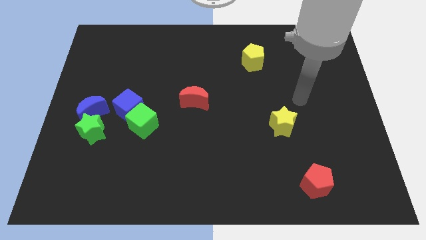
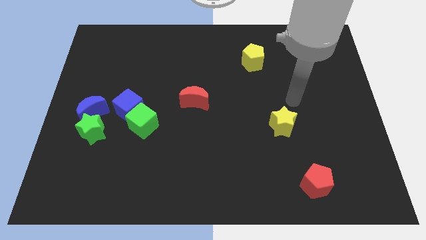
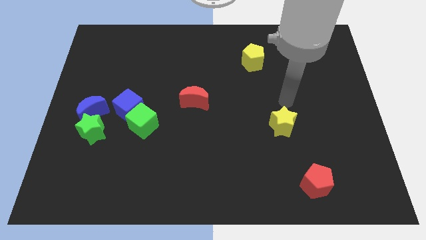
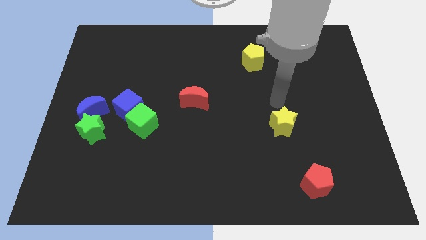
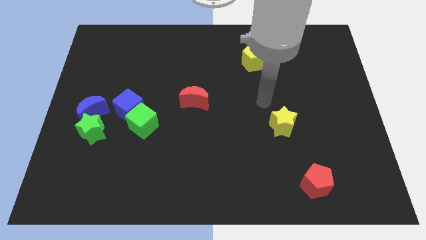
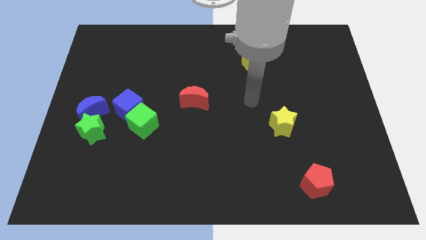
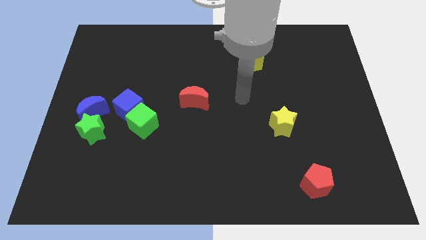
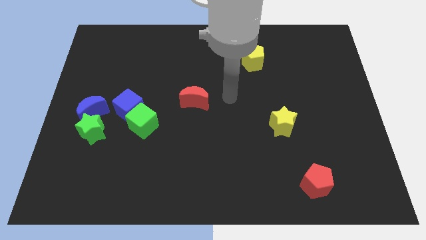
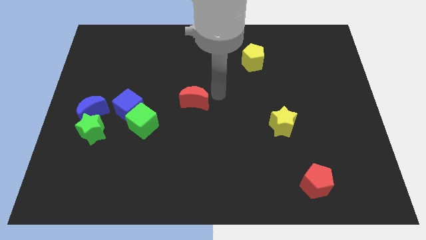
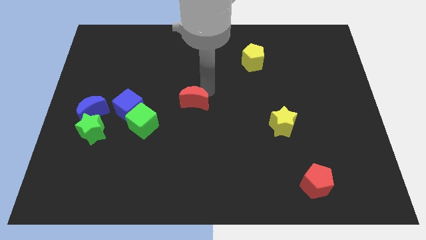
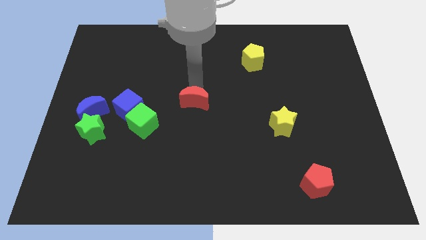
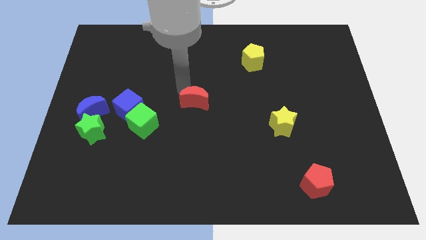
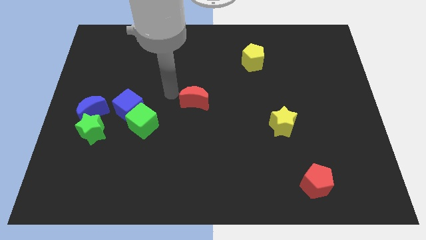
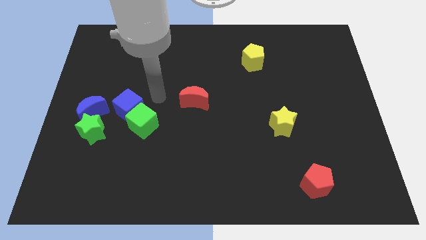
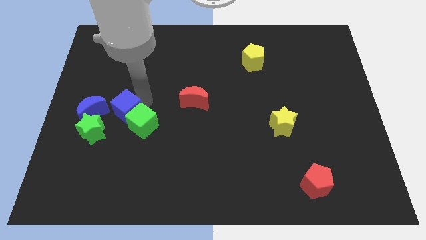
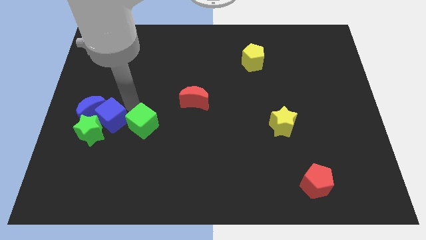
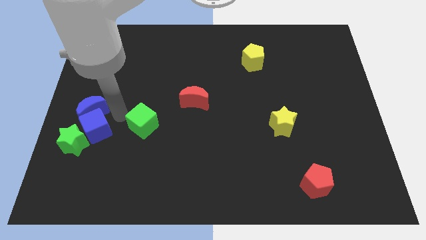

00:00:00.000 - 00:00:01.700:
pull the green cube apart from the blue cube

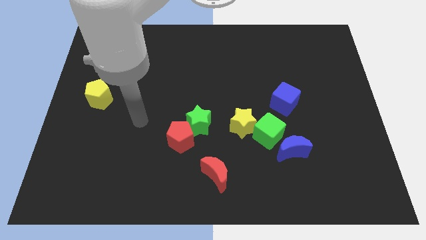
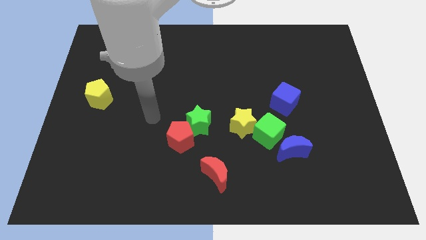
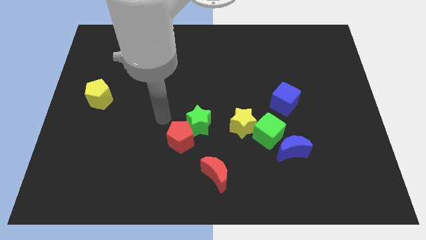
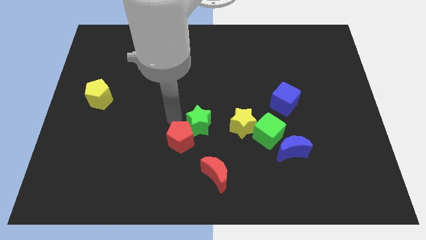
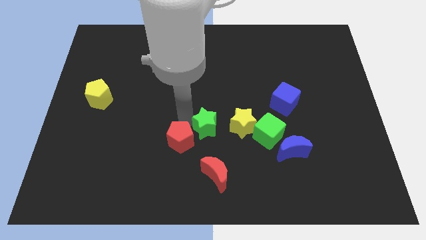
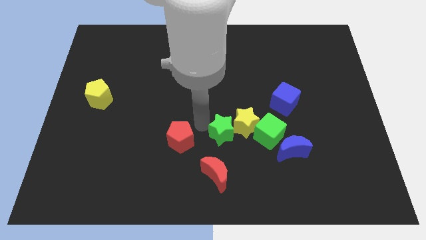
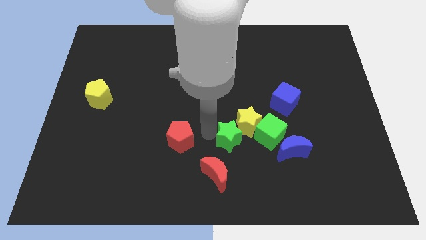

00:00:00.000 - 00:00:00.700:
pull the red pentagon apart from the green star

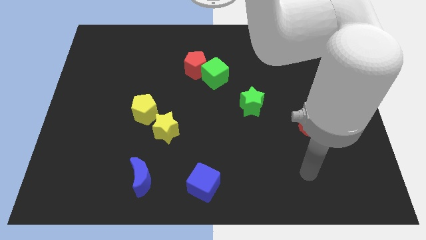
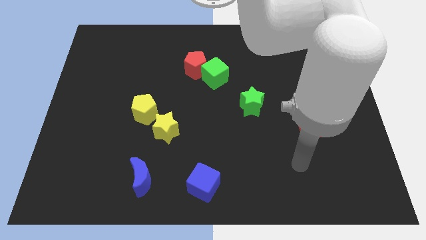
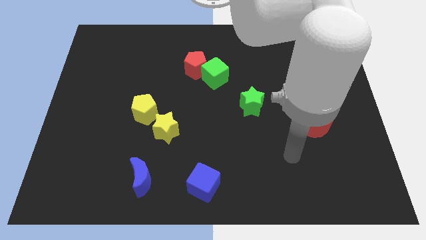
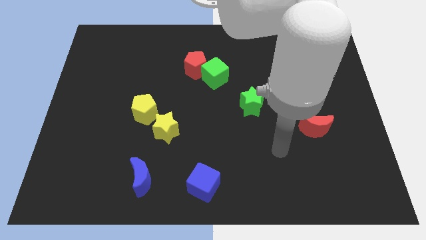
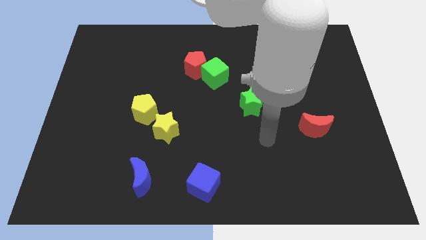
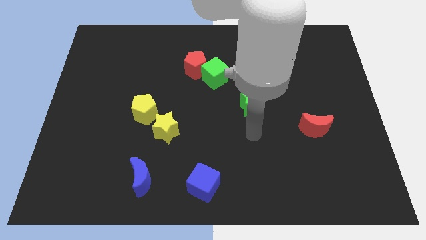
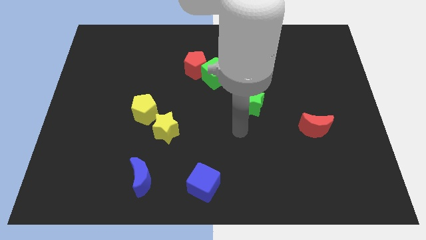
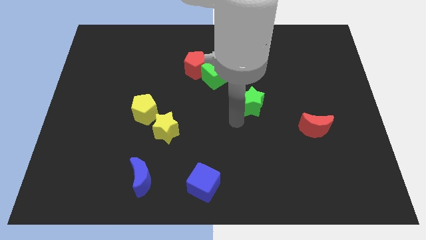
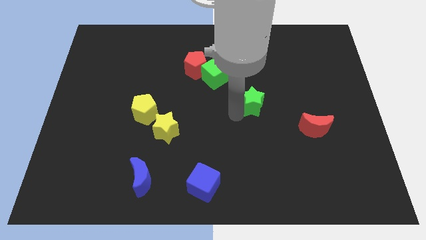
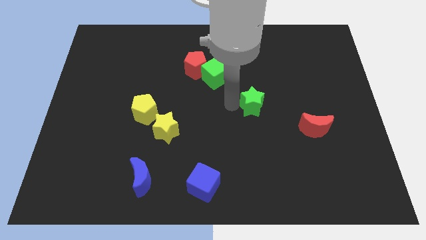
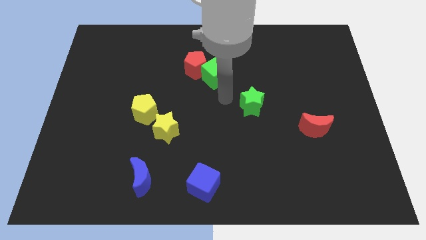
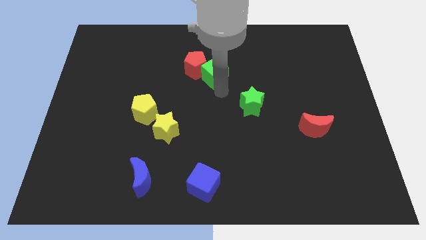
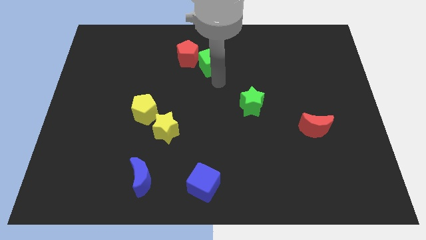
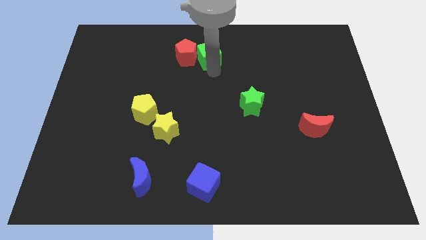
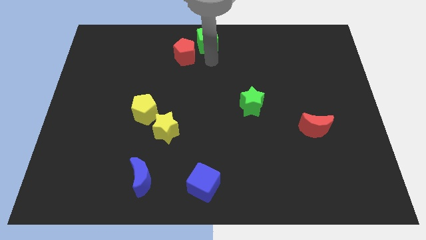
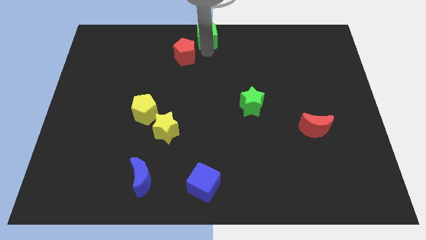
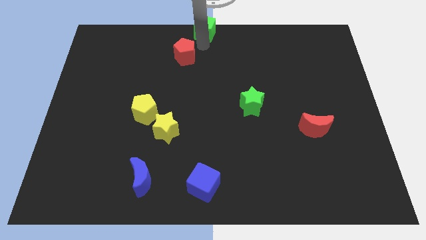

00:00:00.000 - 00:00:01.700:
separate the red pentagon from the green cube

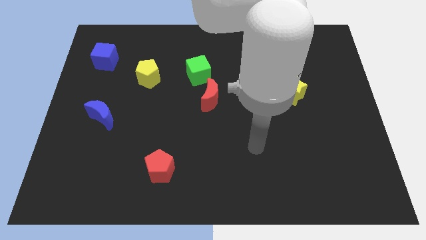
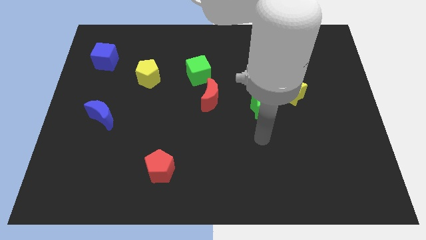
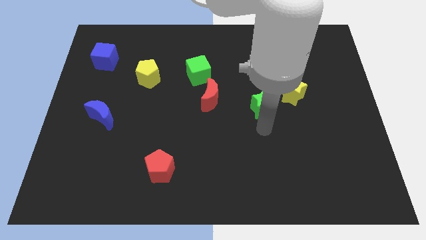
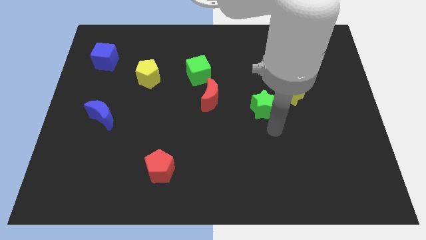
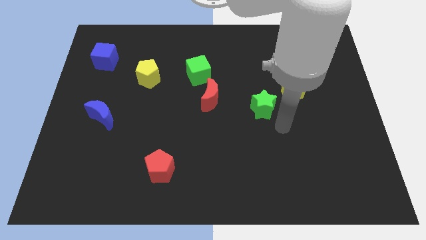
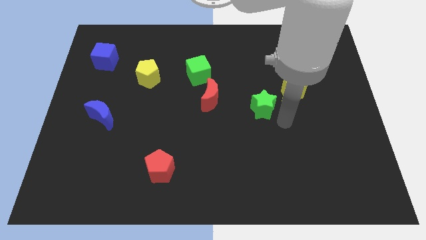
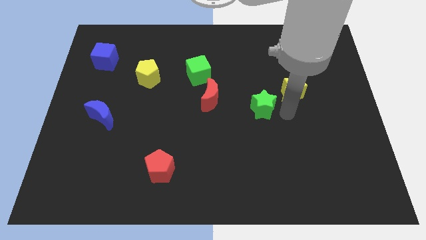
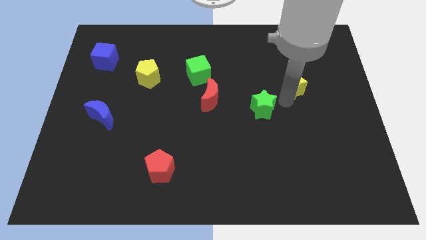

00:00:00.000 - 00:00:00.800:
move the green star away from the yellow star

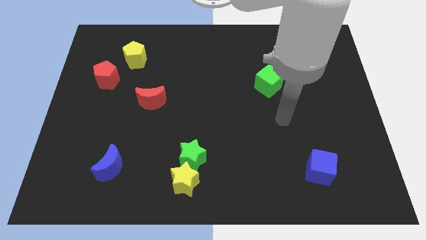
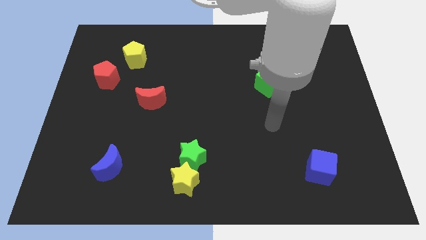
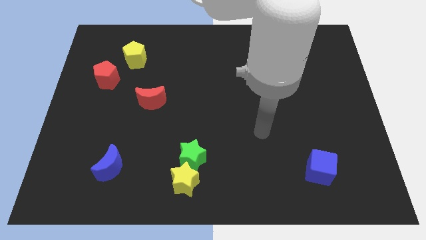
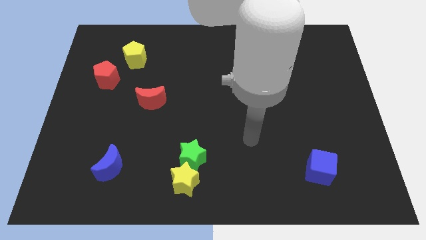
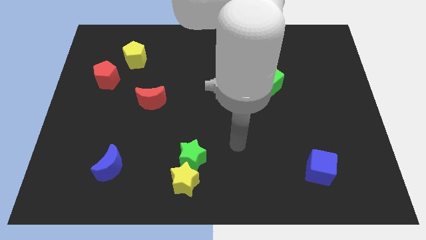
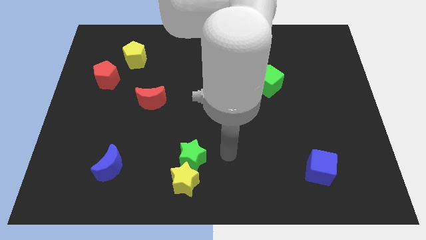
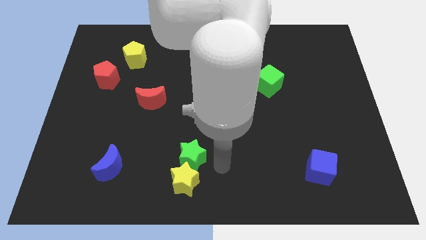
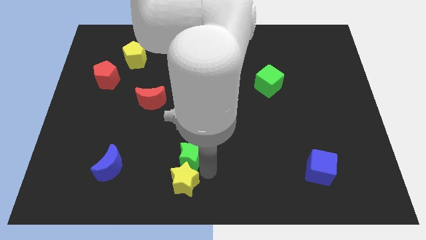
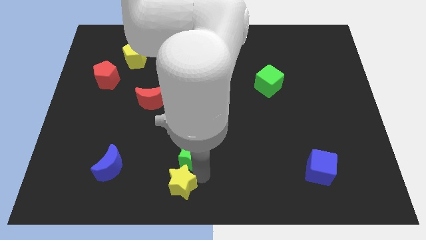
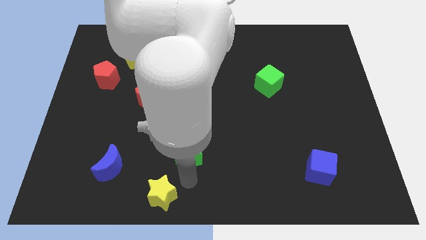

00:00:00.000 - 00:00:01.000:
pull the green star apart from the yellow star

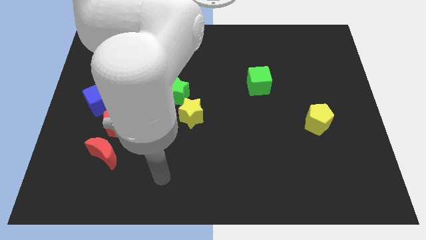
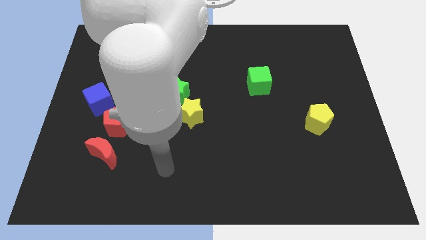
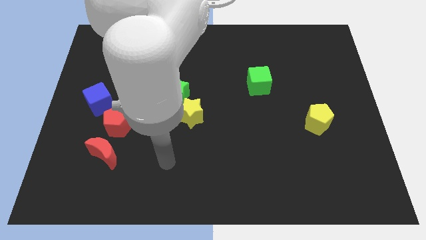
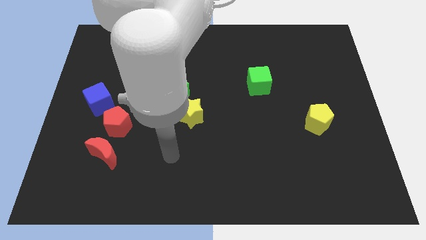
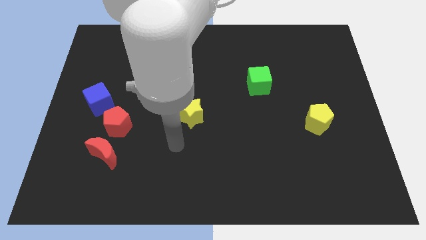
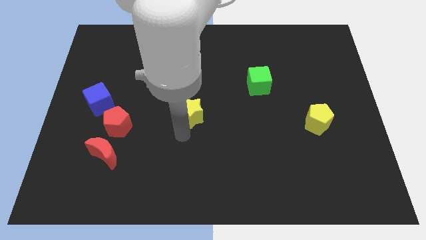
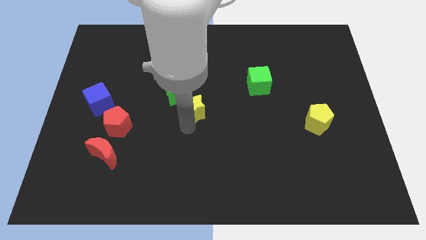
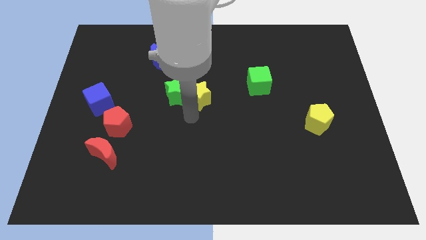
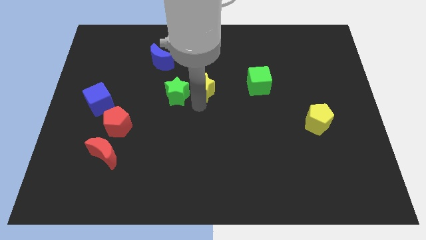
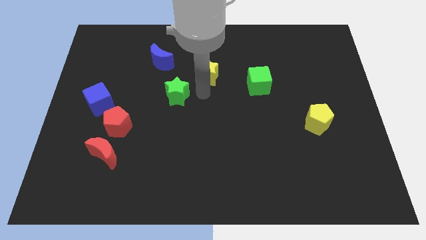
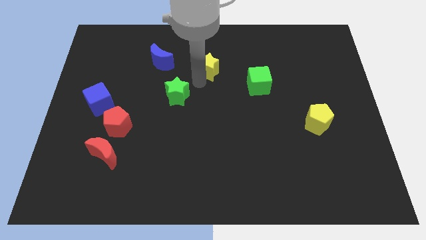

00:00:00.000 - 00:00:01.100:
separate the green star from the yellow star

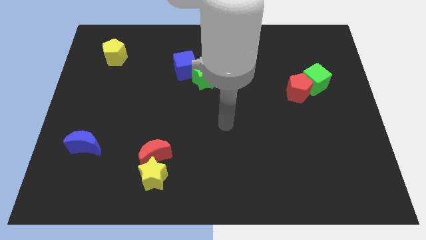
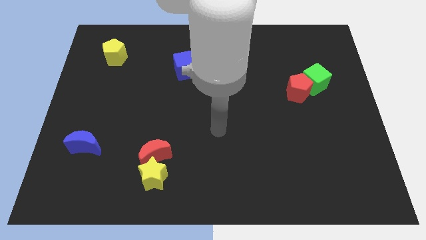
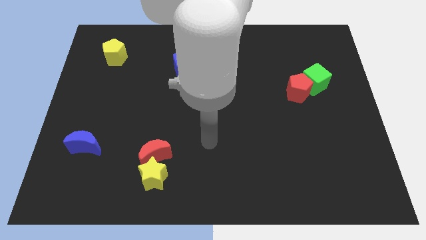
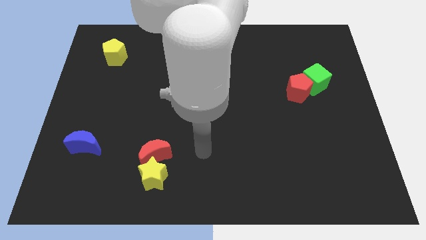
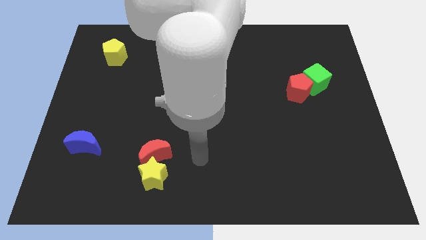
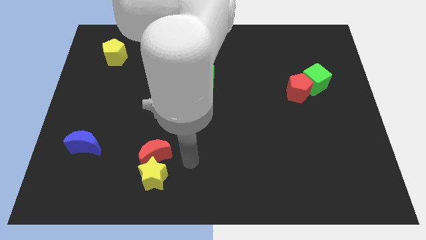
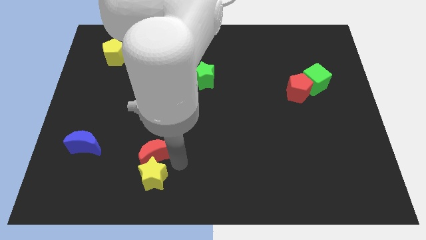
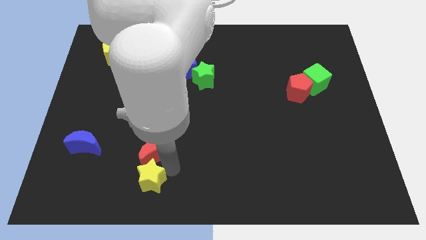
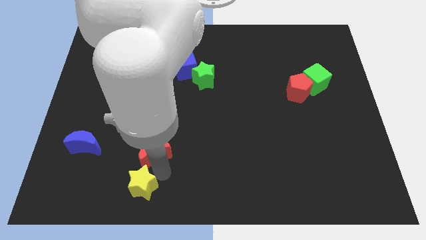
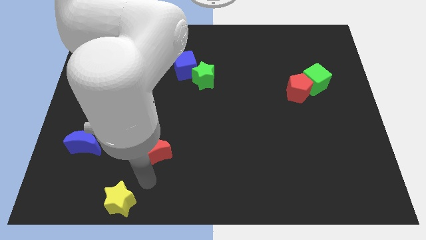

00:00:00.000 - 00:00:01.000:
separate the red moon from the yellow star

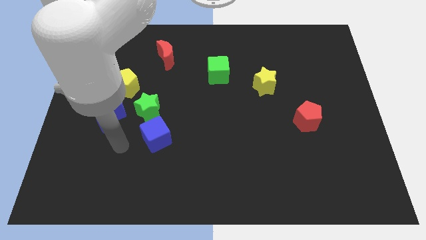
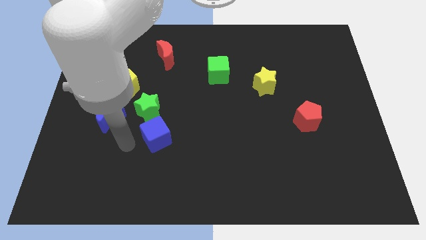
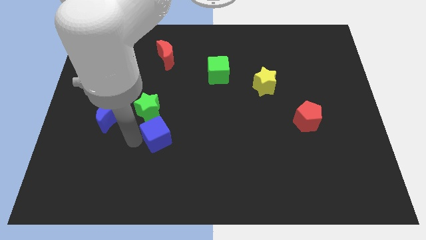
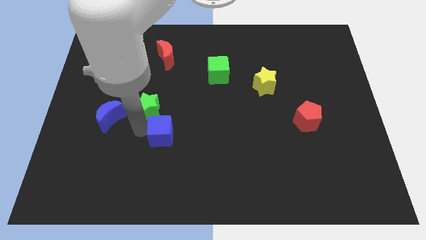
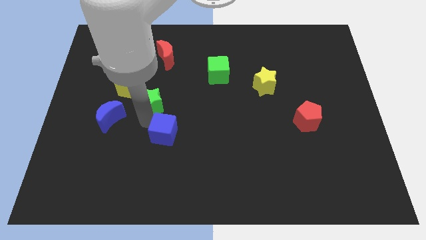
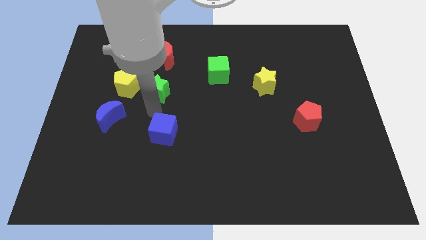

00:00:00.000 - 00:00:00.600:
separate the blue cube from the green star

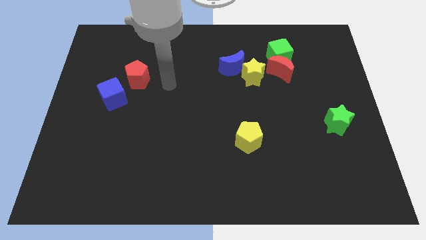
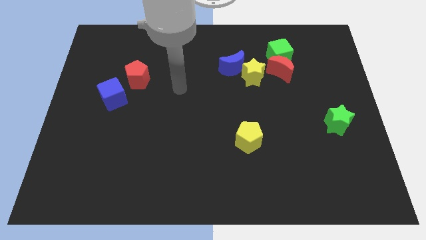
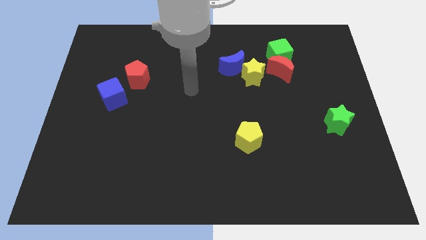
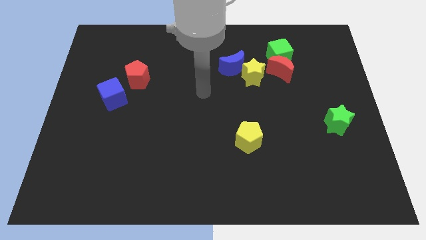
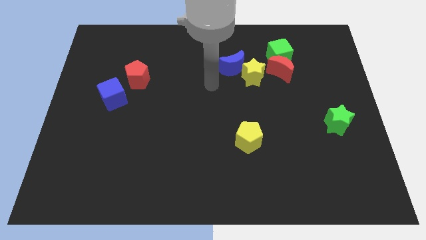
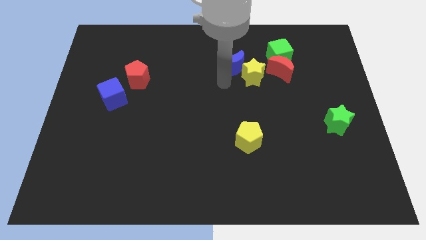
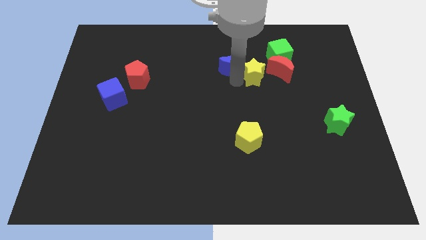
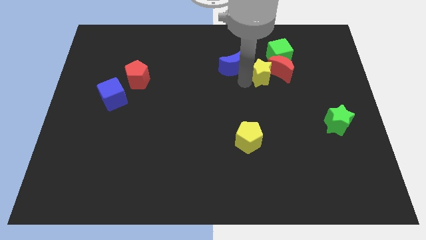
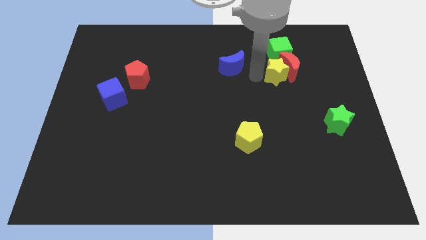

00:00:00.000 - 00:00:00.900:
pull the blue moon apart from the yellow star
